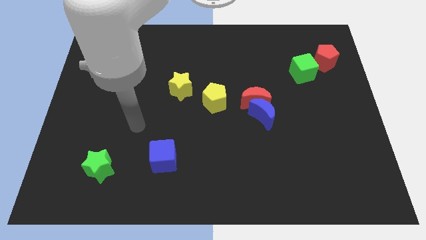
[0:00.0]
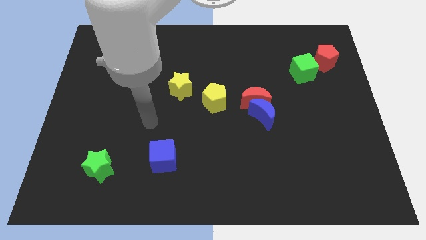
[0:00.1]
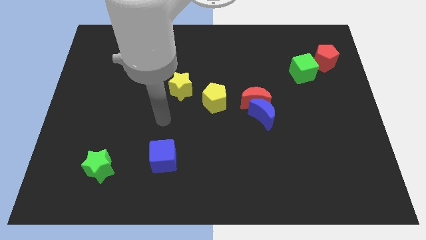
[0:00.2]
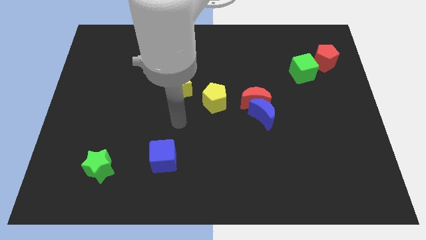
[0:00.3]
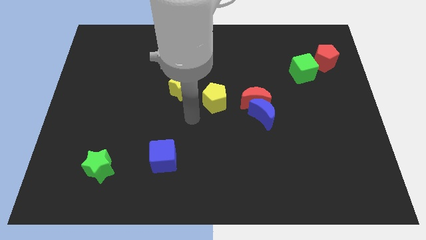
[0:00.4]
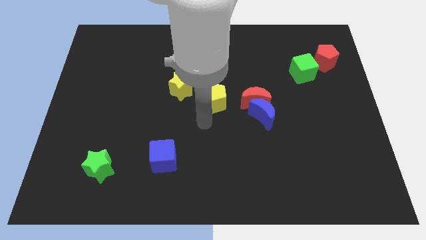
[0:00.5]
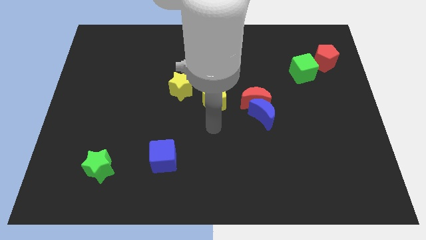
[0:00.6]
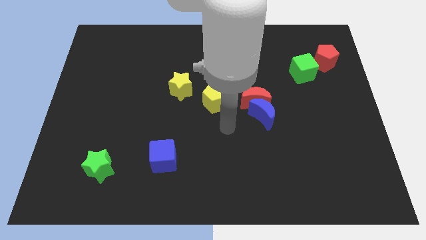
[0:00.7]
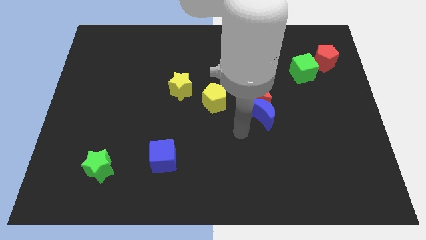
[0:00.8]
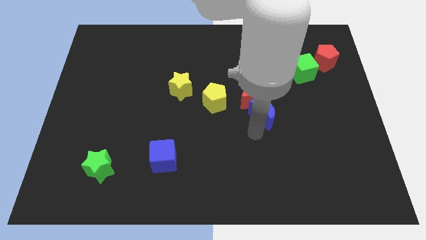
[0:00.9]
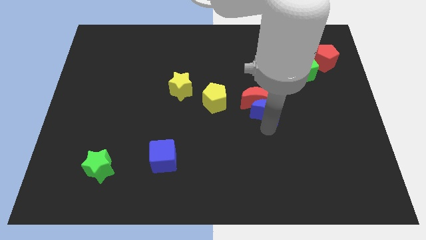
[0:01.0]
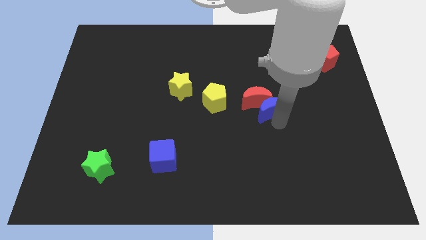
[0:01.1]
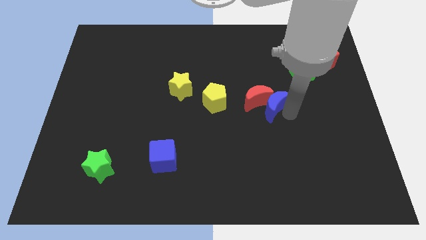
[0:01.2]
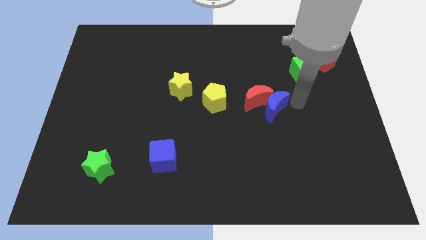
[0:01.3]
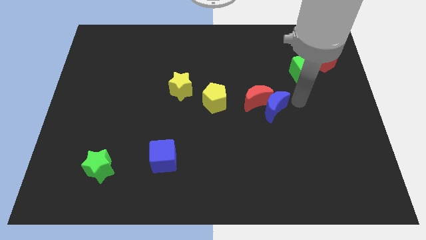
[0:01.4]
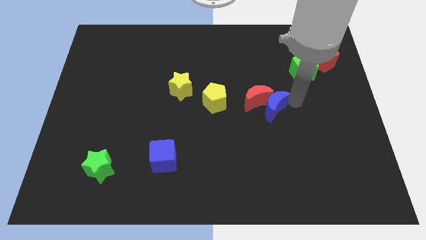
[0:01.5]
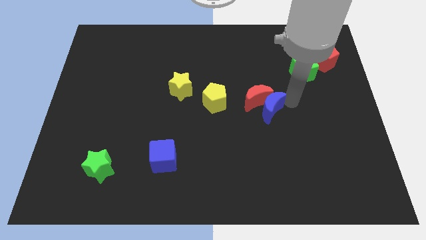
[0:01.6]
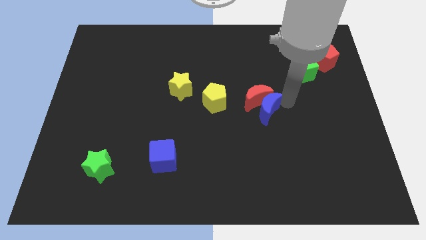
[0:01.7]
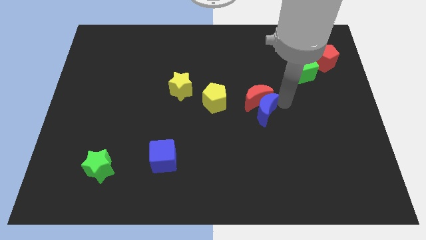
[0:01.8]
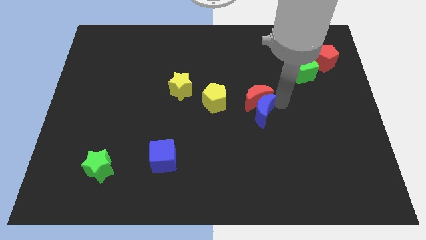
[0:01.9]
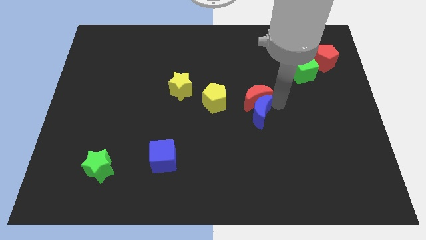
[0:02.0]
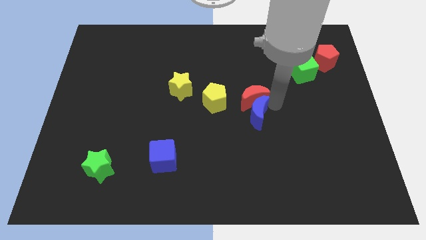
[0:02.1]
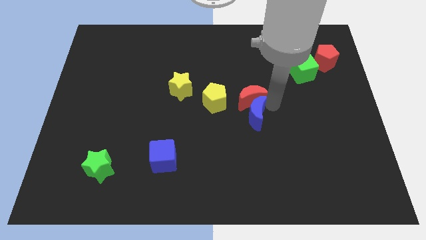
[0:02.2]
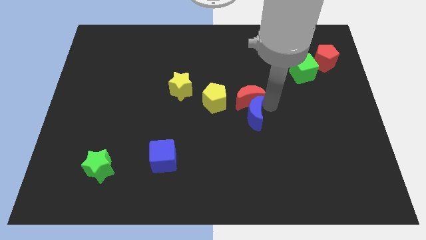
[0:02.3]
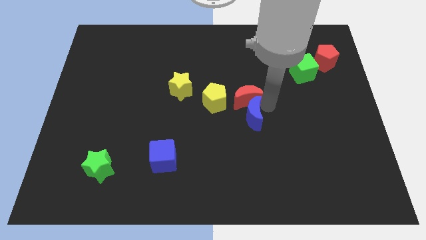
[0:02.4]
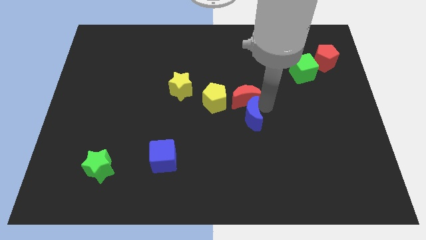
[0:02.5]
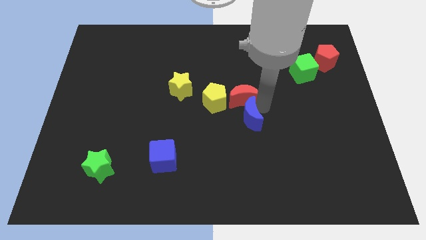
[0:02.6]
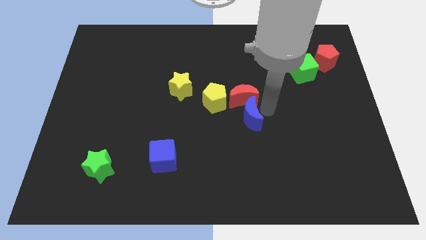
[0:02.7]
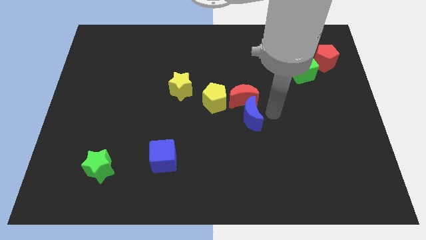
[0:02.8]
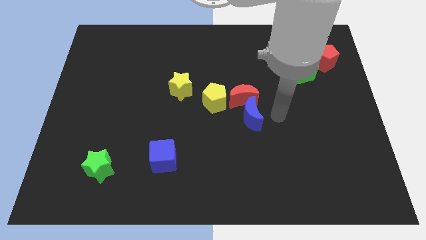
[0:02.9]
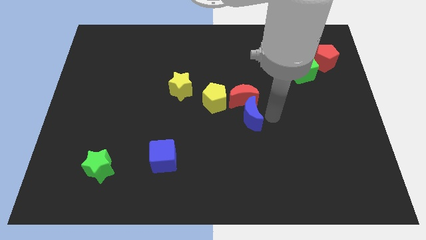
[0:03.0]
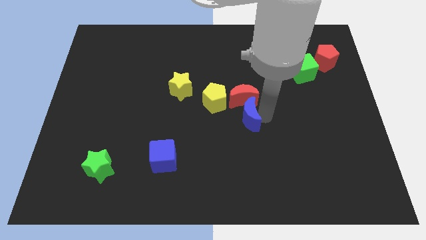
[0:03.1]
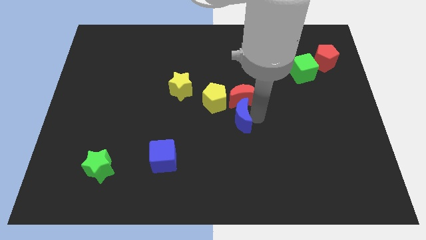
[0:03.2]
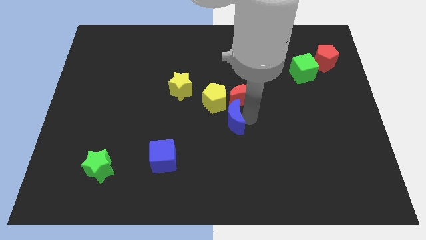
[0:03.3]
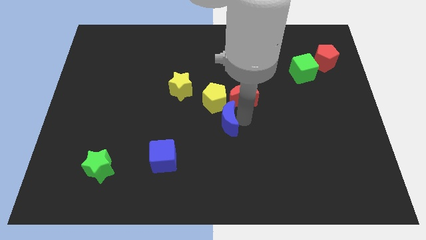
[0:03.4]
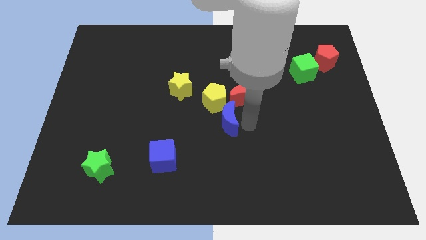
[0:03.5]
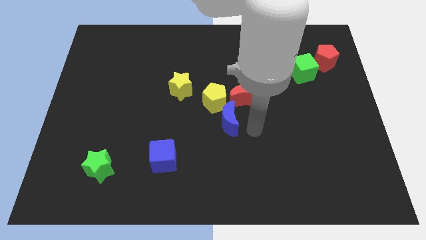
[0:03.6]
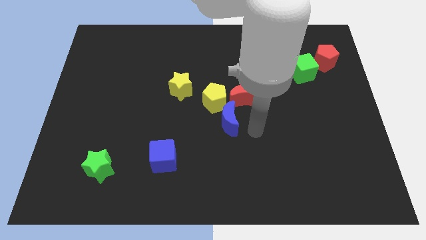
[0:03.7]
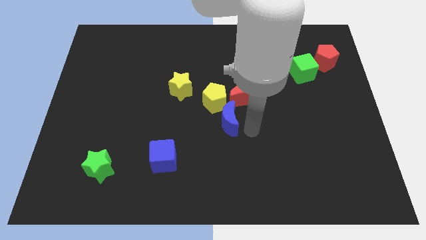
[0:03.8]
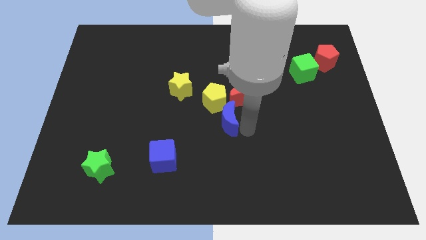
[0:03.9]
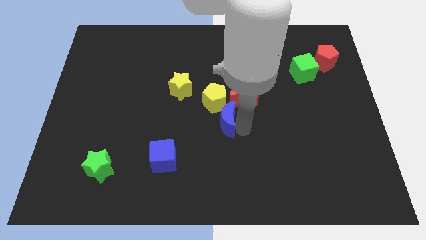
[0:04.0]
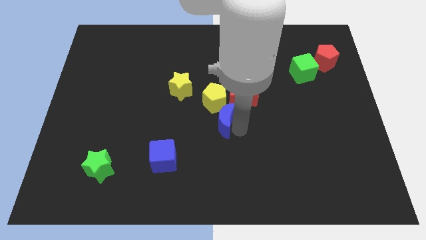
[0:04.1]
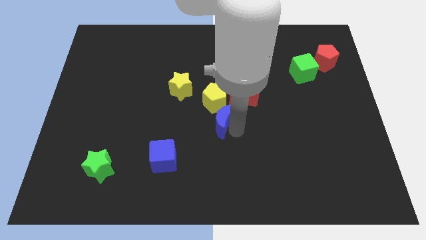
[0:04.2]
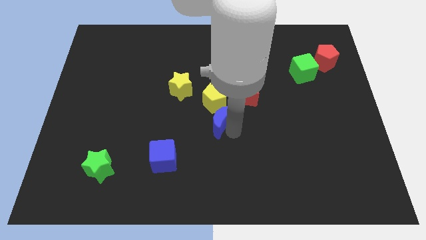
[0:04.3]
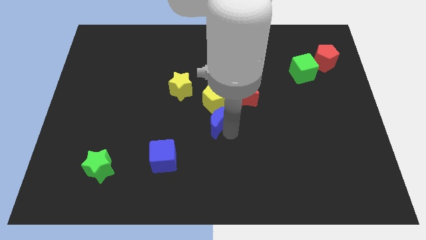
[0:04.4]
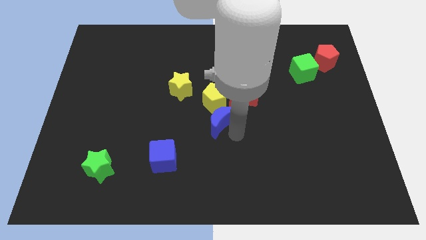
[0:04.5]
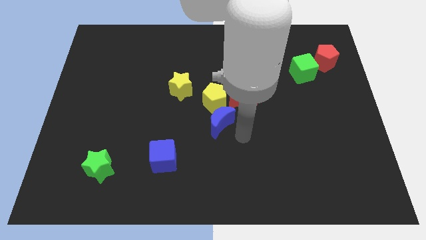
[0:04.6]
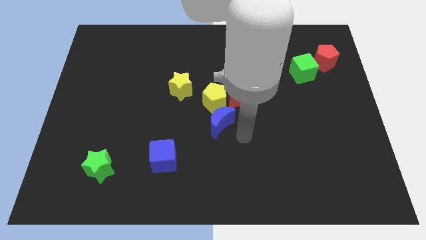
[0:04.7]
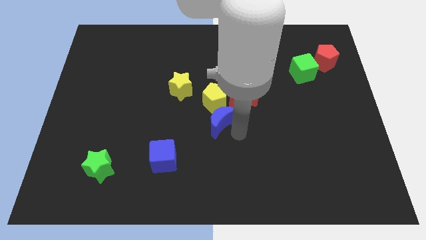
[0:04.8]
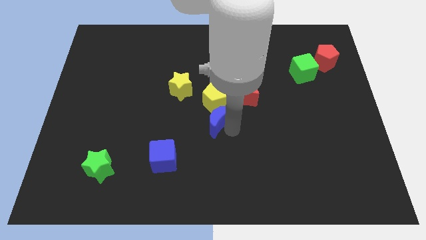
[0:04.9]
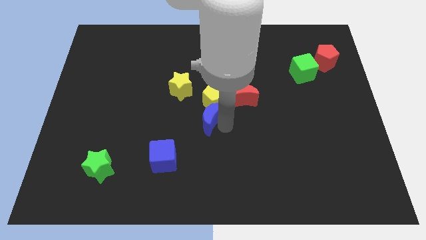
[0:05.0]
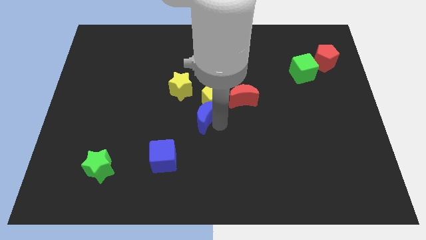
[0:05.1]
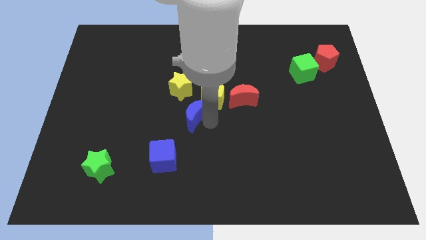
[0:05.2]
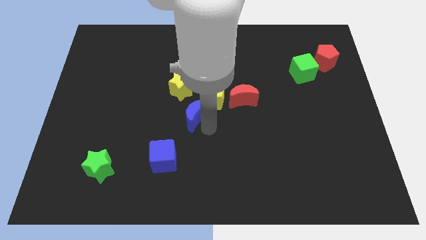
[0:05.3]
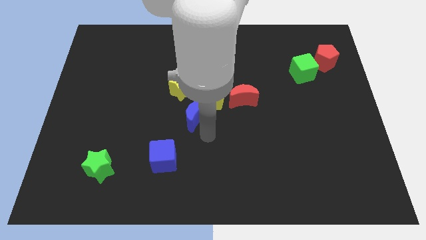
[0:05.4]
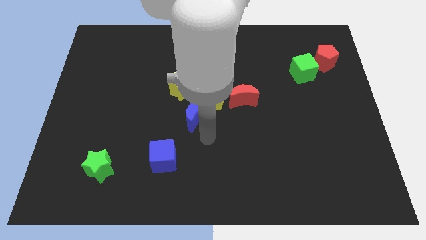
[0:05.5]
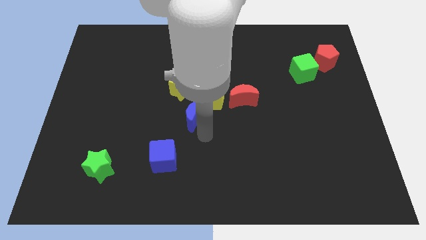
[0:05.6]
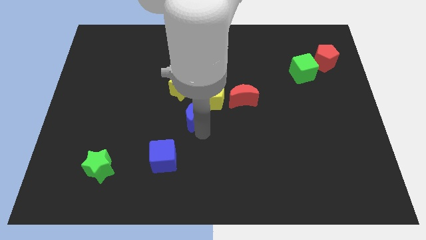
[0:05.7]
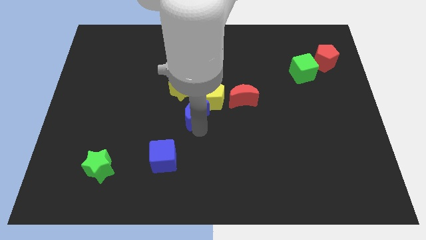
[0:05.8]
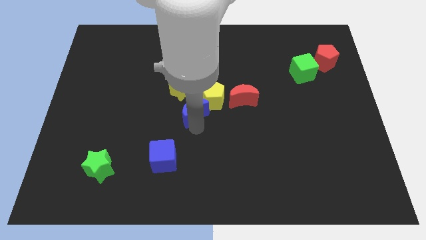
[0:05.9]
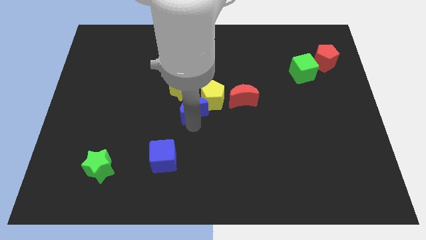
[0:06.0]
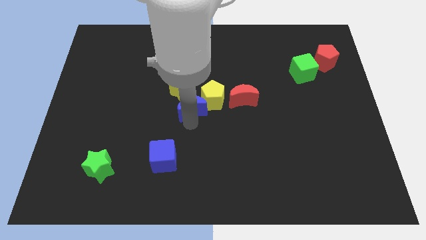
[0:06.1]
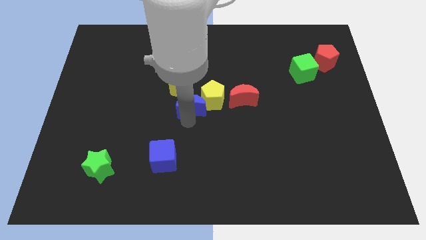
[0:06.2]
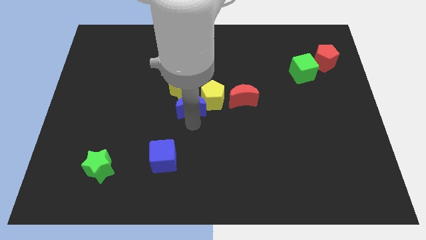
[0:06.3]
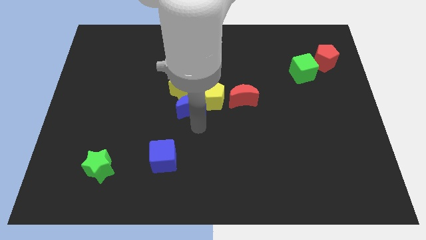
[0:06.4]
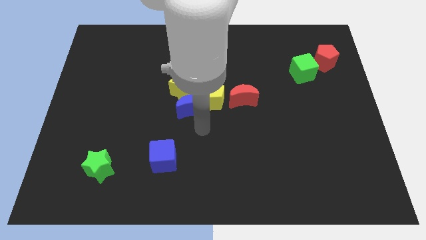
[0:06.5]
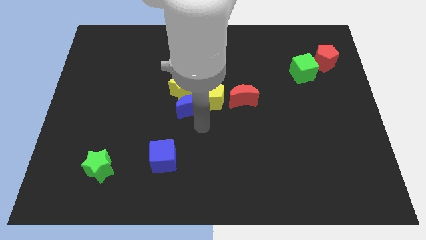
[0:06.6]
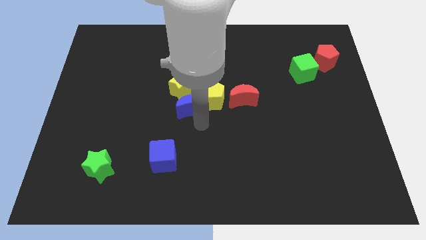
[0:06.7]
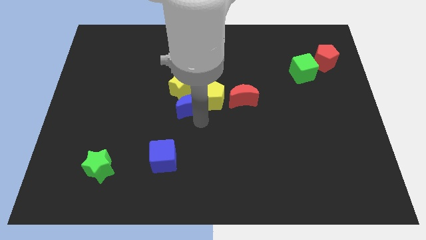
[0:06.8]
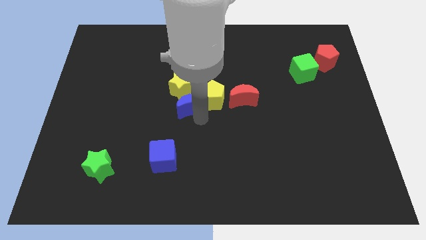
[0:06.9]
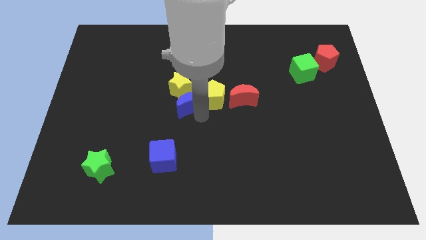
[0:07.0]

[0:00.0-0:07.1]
put the blue moon towards the yellow star
